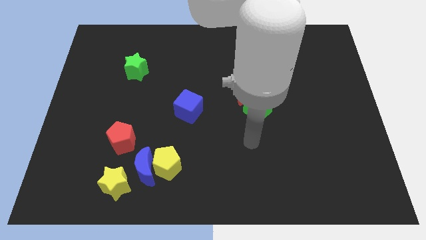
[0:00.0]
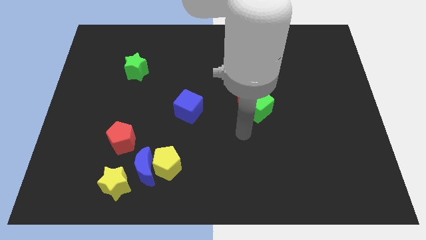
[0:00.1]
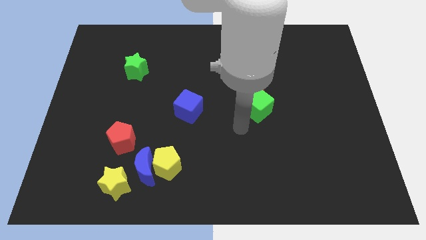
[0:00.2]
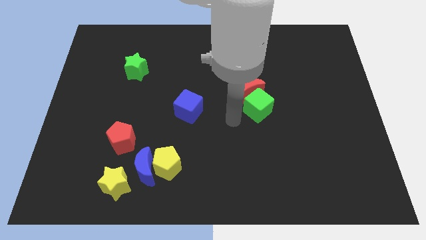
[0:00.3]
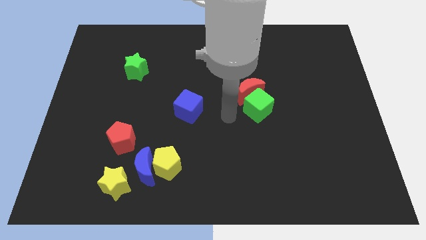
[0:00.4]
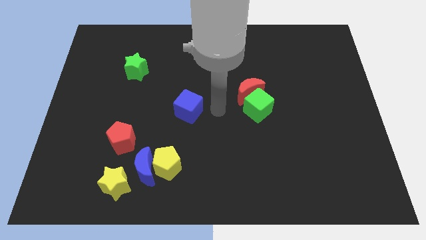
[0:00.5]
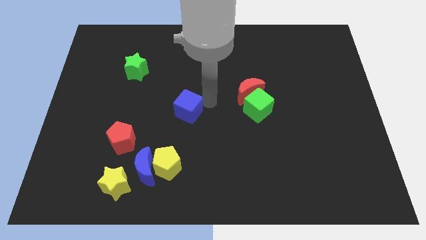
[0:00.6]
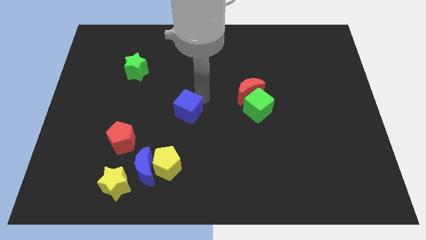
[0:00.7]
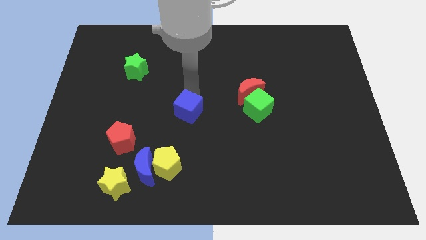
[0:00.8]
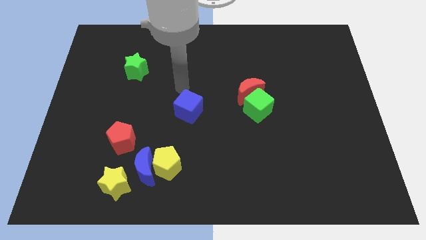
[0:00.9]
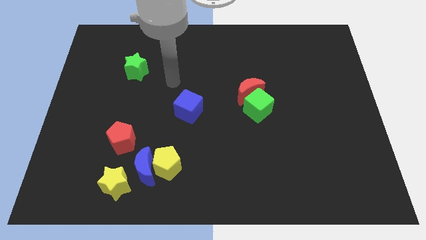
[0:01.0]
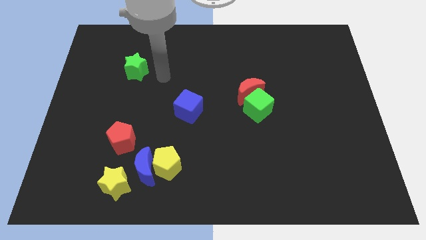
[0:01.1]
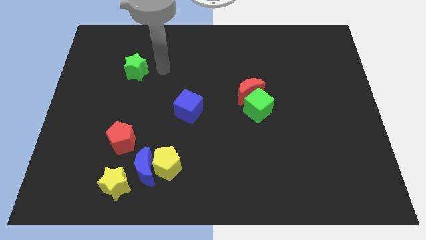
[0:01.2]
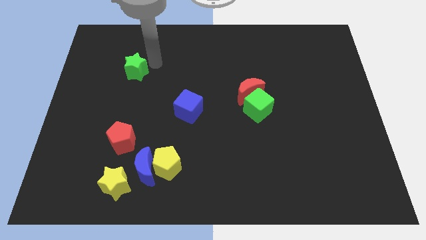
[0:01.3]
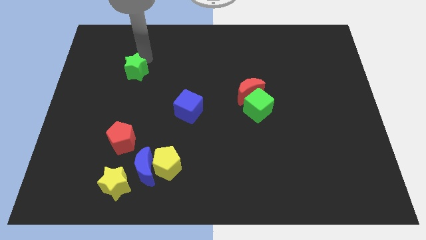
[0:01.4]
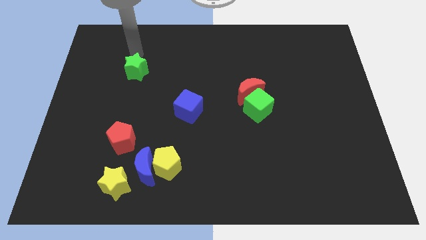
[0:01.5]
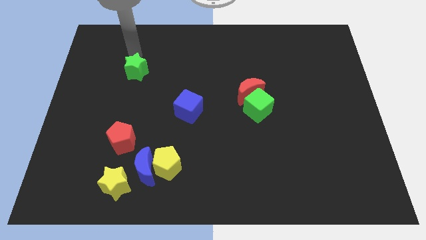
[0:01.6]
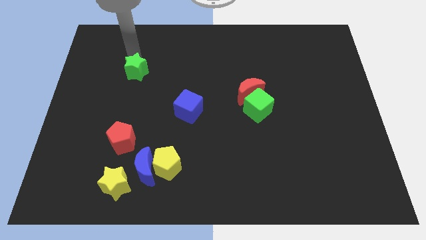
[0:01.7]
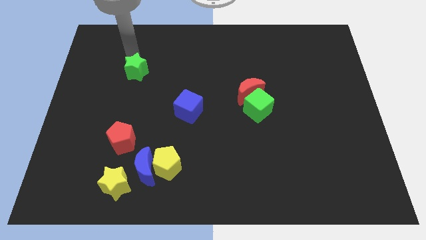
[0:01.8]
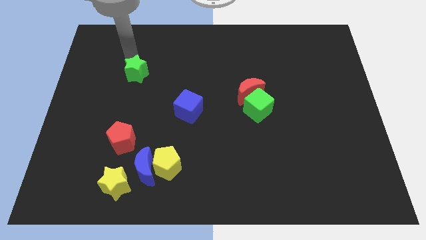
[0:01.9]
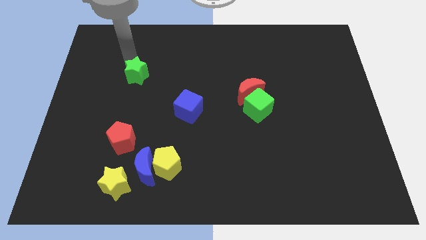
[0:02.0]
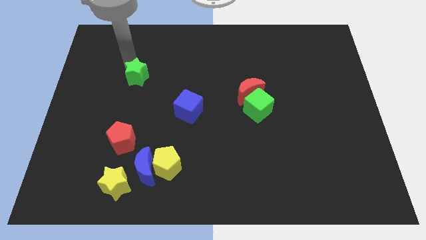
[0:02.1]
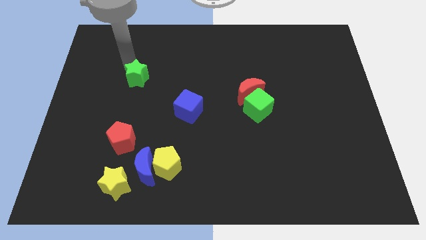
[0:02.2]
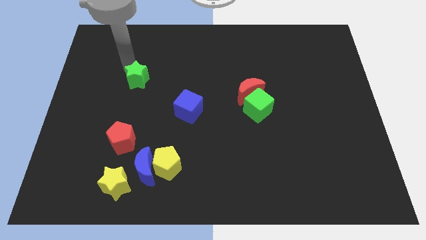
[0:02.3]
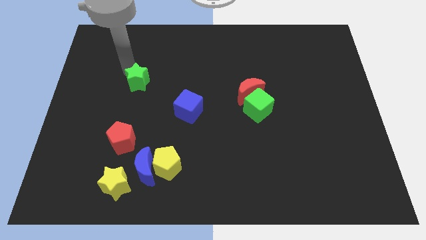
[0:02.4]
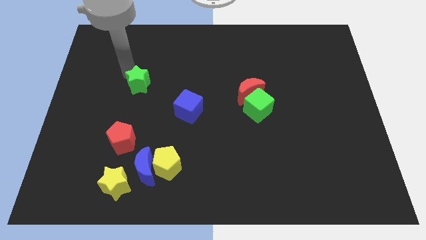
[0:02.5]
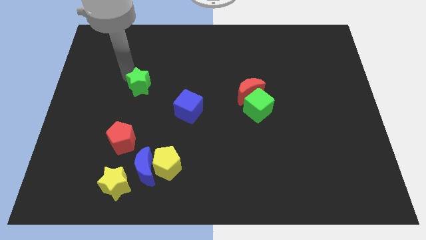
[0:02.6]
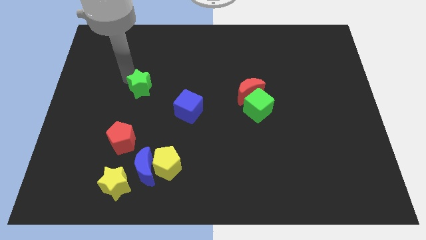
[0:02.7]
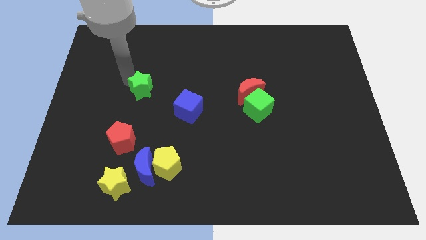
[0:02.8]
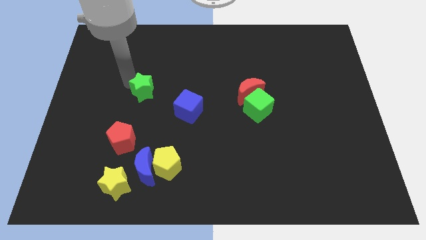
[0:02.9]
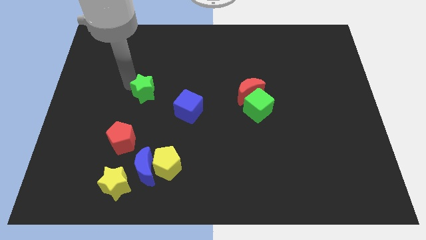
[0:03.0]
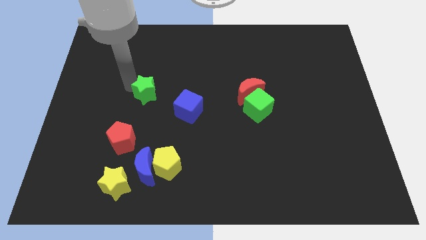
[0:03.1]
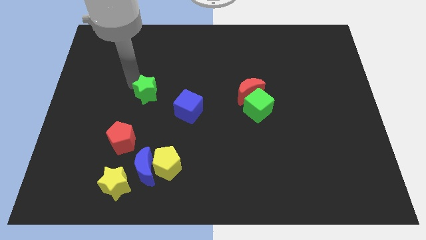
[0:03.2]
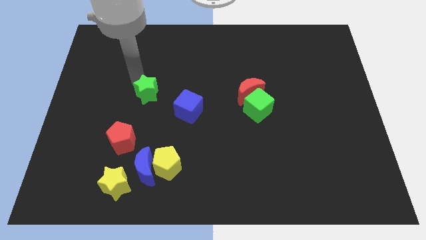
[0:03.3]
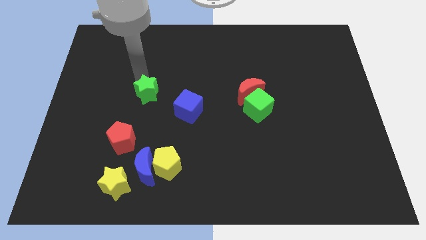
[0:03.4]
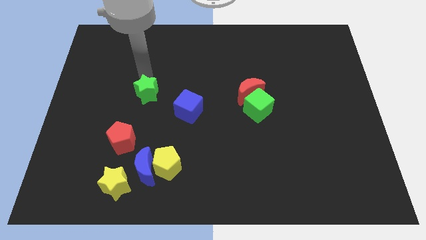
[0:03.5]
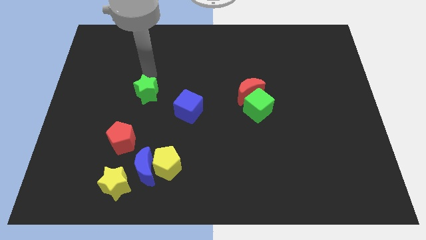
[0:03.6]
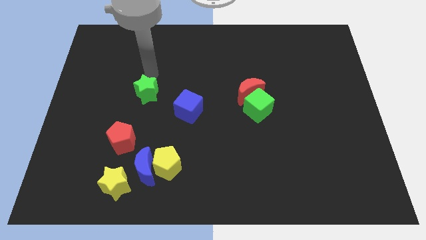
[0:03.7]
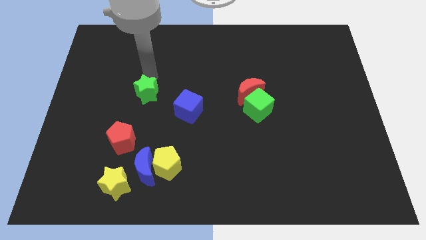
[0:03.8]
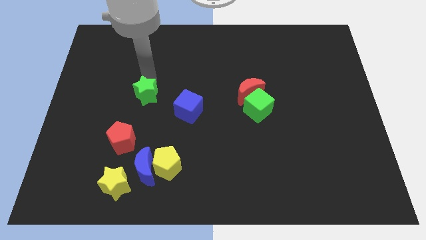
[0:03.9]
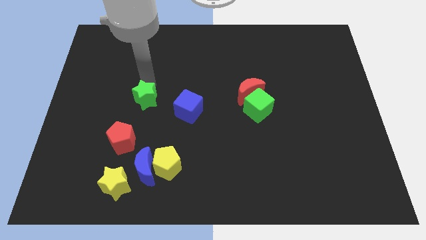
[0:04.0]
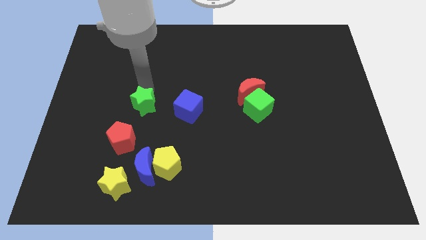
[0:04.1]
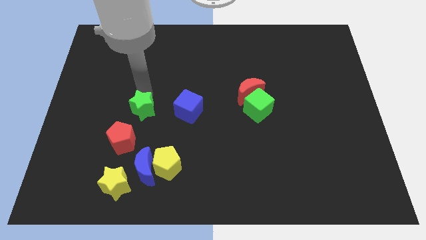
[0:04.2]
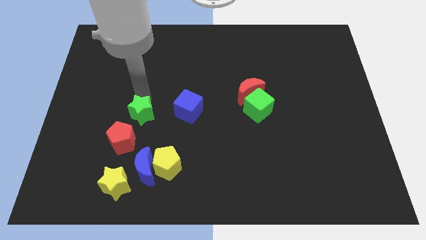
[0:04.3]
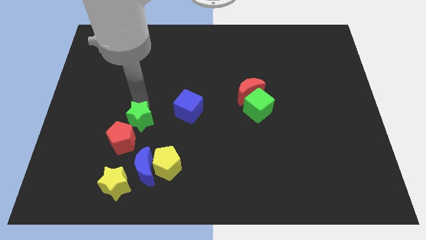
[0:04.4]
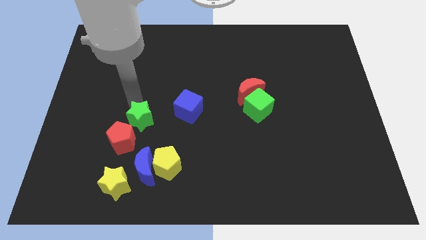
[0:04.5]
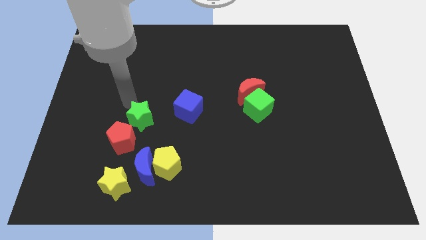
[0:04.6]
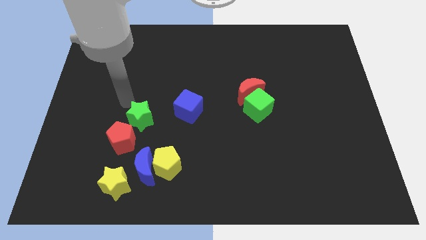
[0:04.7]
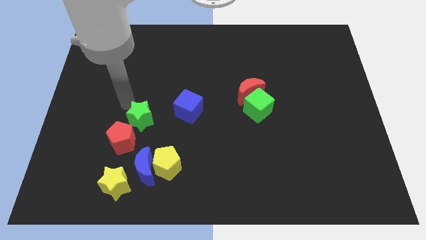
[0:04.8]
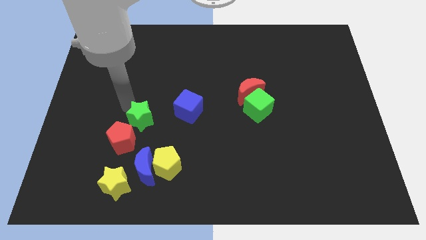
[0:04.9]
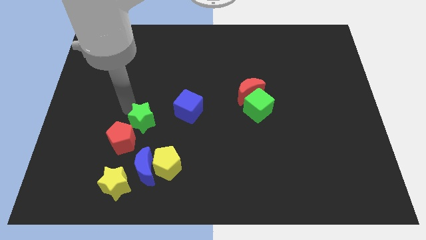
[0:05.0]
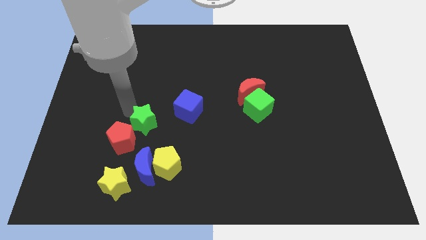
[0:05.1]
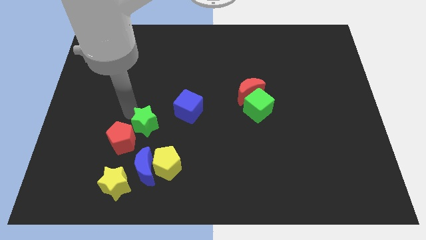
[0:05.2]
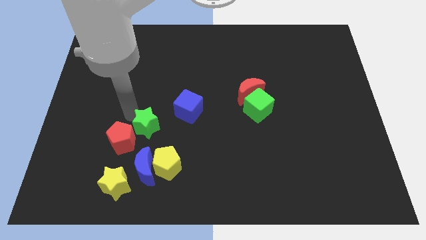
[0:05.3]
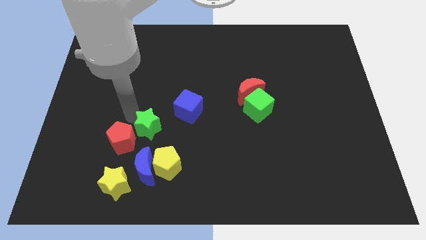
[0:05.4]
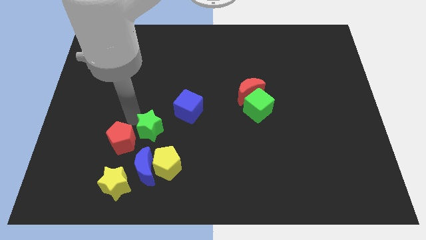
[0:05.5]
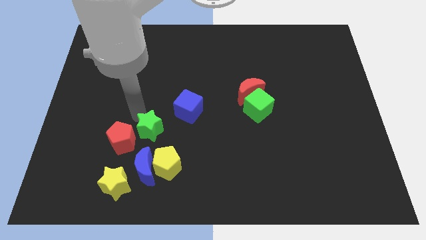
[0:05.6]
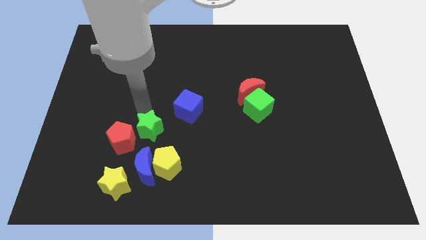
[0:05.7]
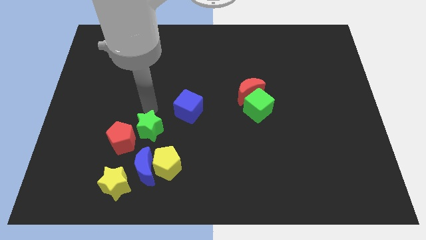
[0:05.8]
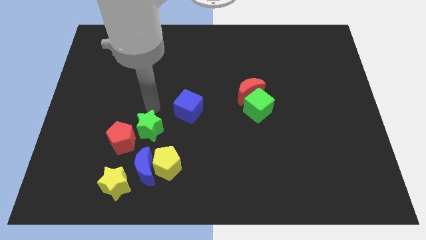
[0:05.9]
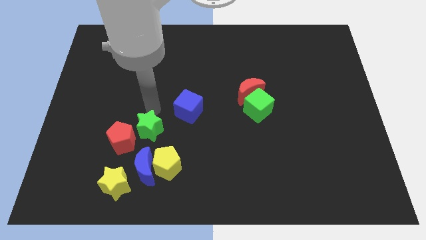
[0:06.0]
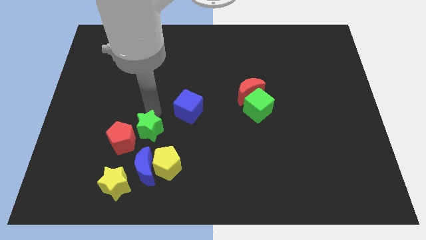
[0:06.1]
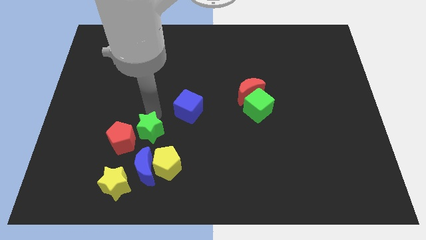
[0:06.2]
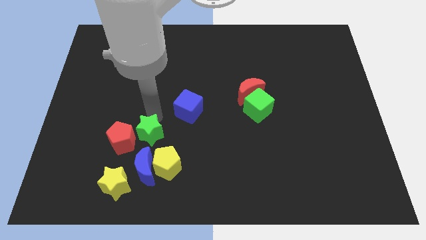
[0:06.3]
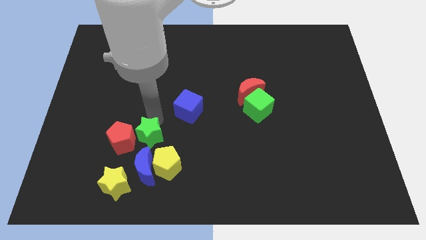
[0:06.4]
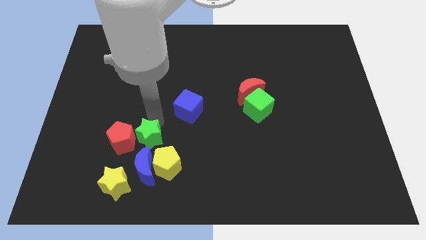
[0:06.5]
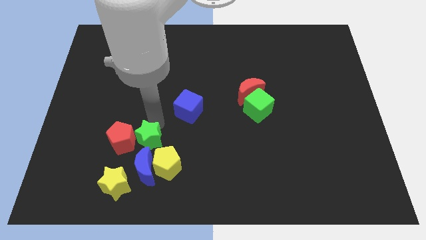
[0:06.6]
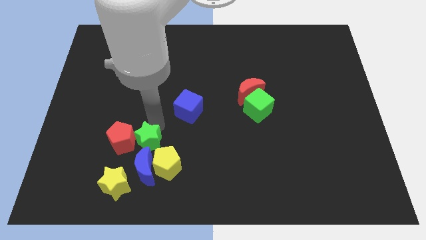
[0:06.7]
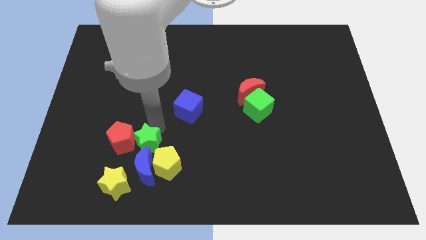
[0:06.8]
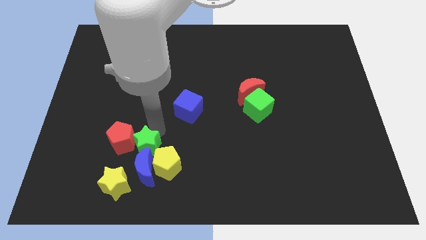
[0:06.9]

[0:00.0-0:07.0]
move the green star to the blue moon
